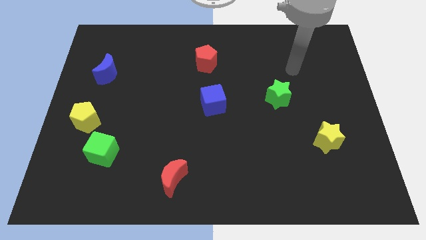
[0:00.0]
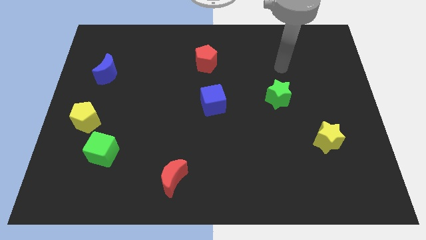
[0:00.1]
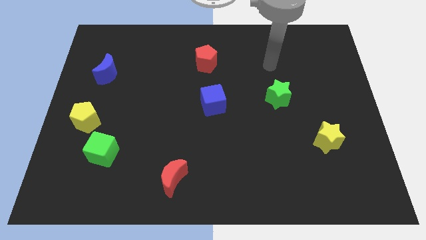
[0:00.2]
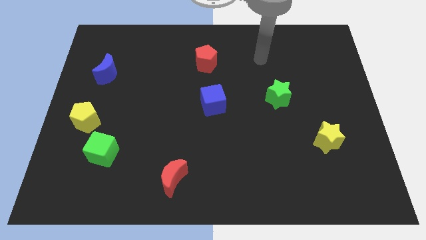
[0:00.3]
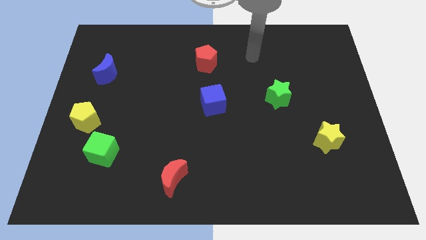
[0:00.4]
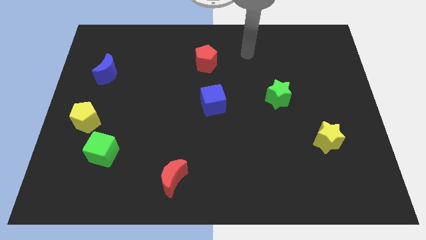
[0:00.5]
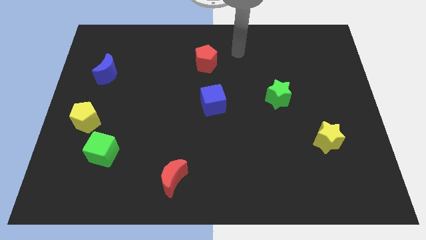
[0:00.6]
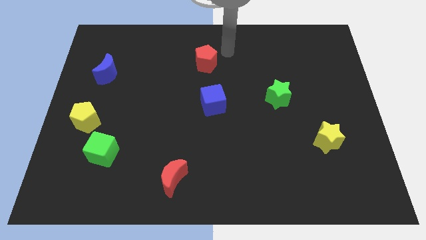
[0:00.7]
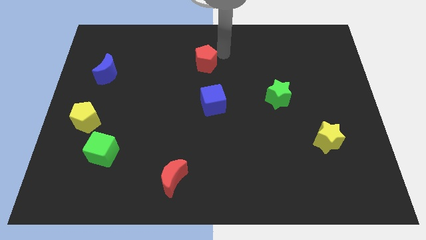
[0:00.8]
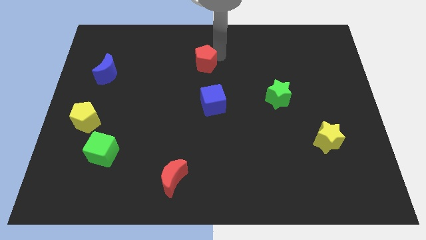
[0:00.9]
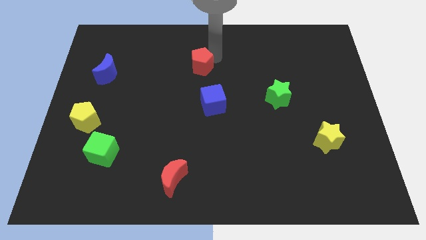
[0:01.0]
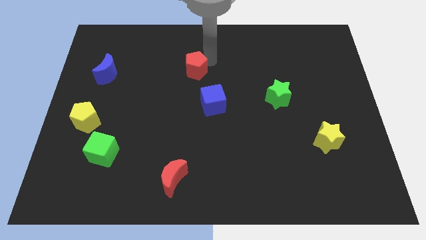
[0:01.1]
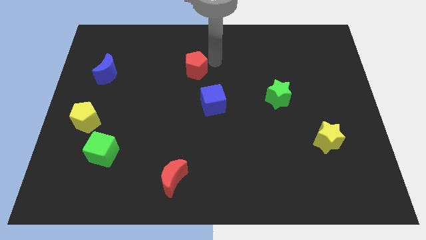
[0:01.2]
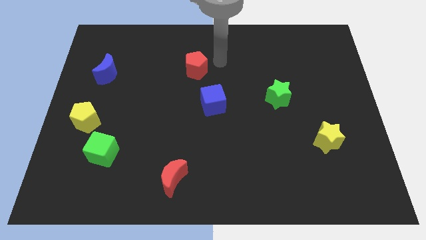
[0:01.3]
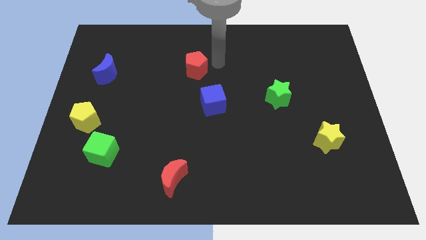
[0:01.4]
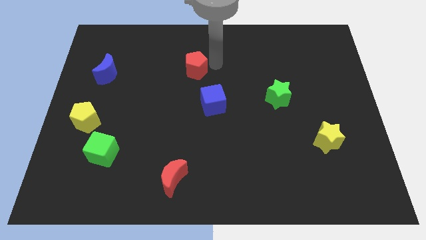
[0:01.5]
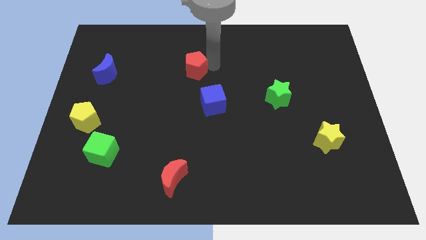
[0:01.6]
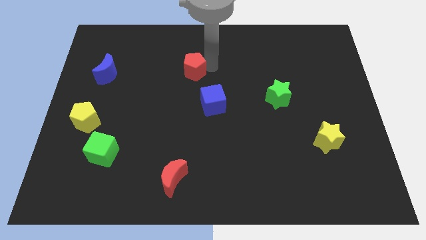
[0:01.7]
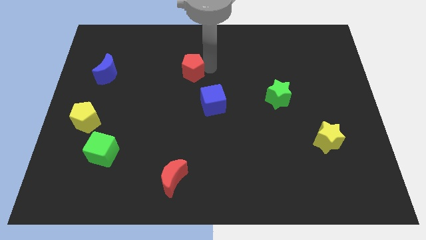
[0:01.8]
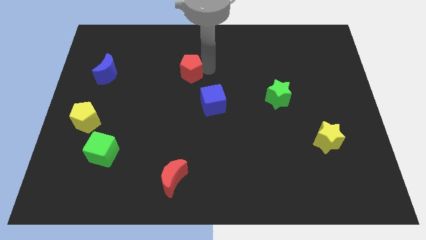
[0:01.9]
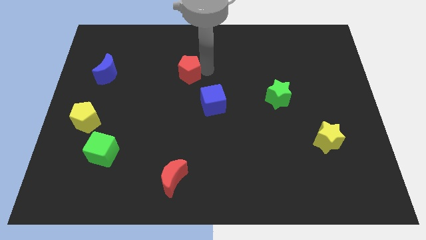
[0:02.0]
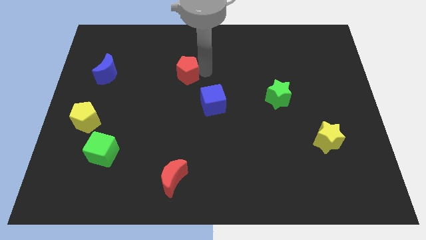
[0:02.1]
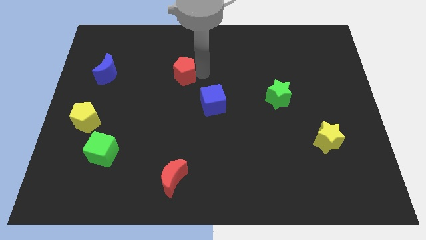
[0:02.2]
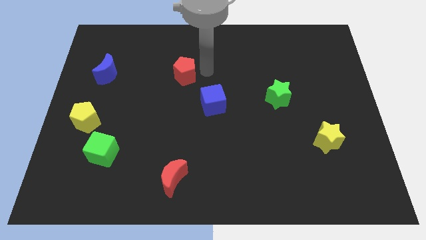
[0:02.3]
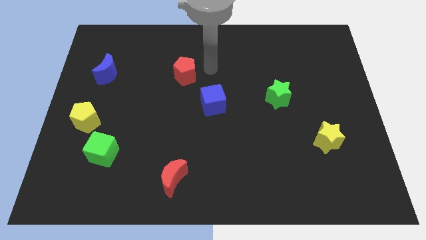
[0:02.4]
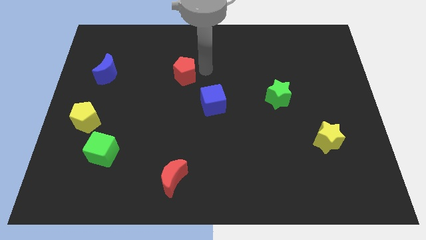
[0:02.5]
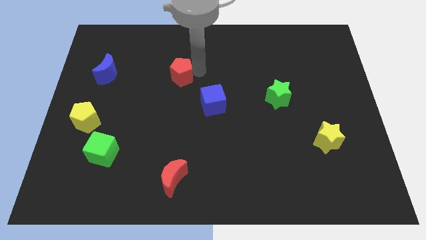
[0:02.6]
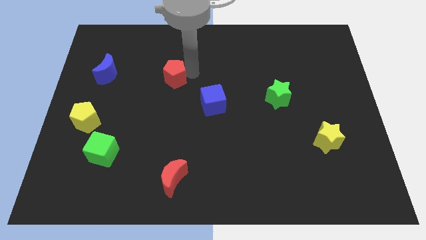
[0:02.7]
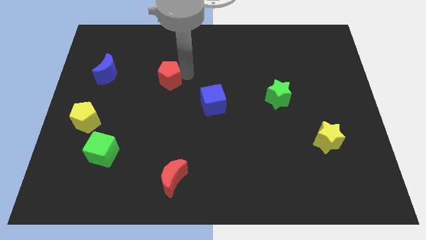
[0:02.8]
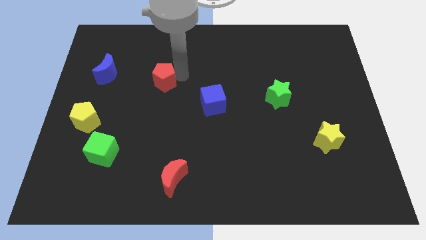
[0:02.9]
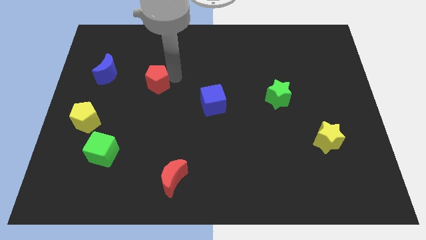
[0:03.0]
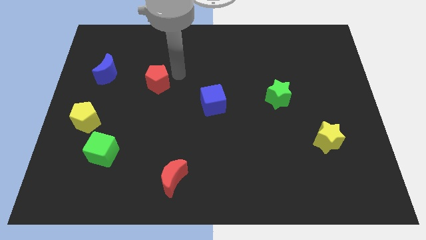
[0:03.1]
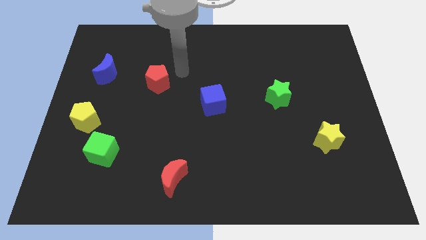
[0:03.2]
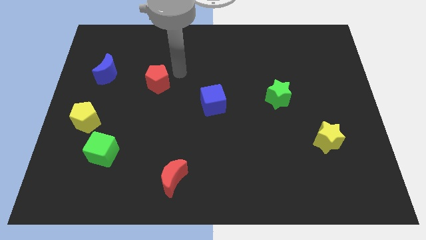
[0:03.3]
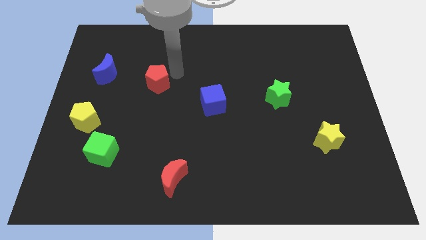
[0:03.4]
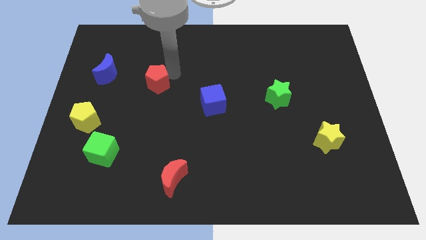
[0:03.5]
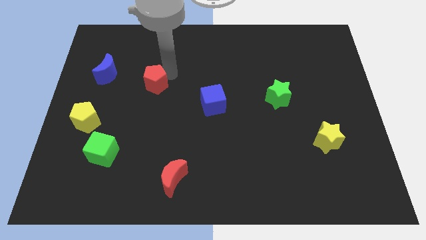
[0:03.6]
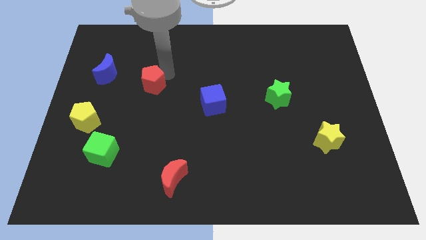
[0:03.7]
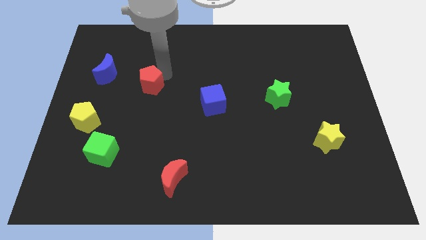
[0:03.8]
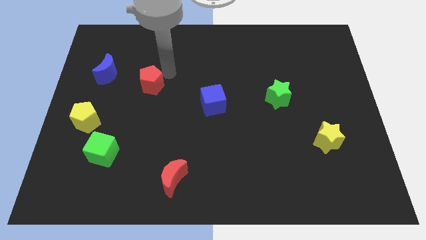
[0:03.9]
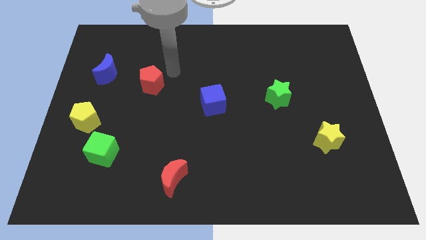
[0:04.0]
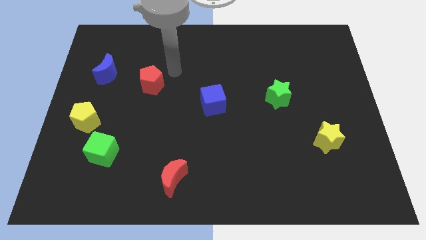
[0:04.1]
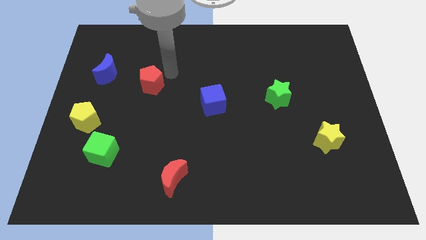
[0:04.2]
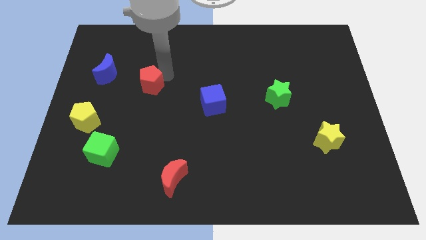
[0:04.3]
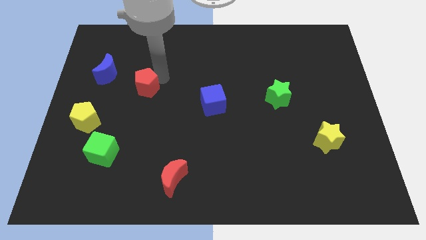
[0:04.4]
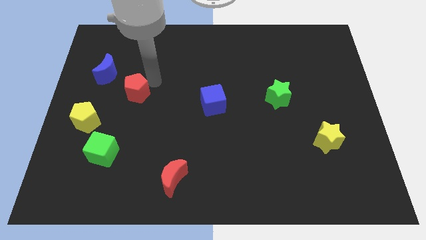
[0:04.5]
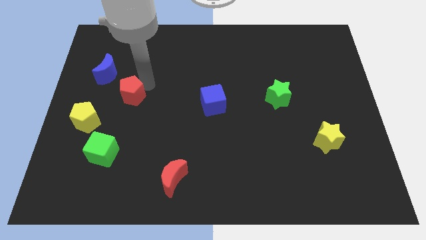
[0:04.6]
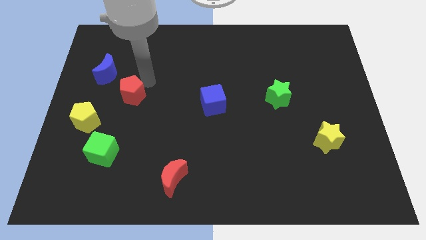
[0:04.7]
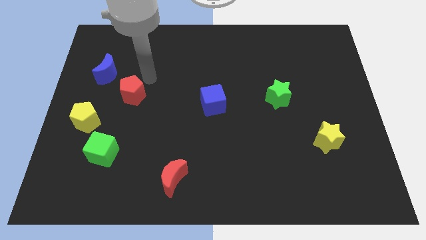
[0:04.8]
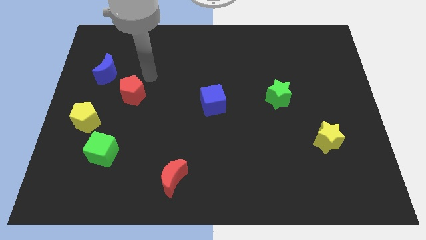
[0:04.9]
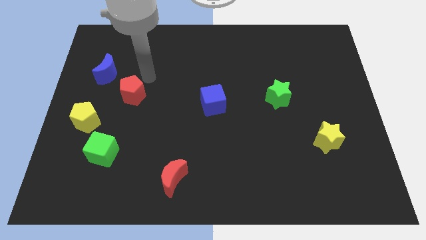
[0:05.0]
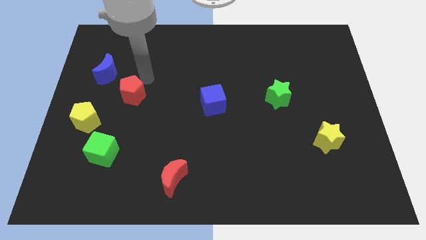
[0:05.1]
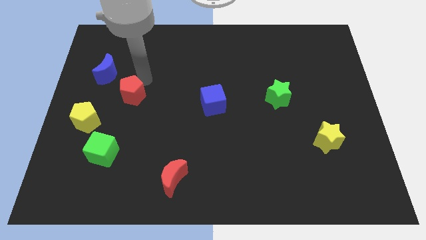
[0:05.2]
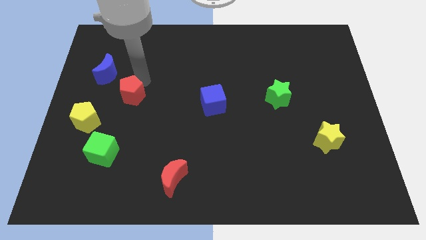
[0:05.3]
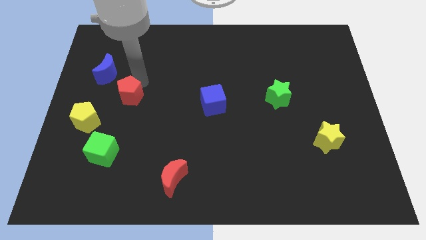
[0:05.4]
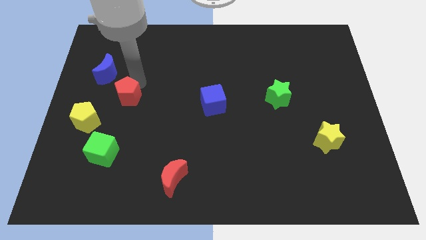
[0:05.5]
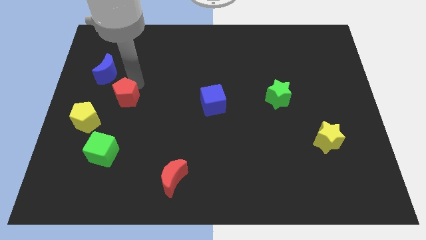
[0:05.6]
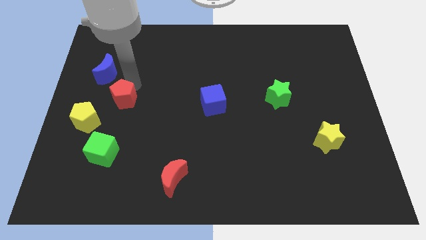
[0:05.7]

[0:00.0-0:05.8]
move the red pentagon above the green cube

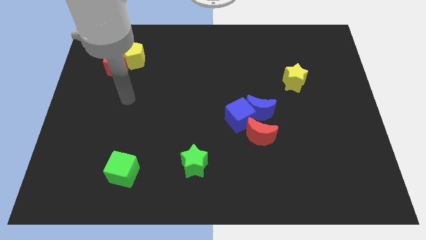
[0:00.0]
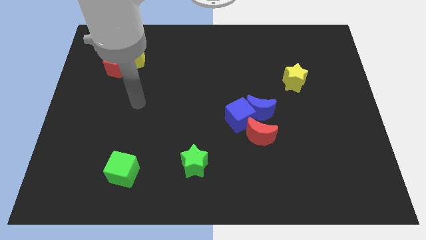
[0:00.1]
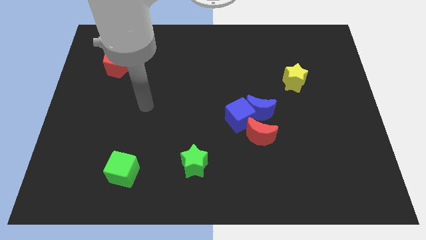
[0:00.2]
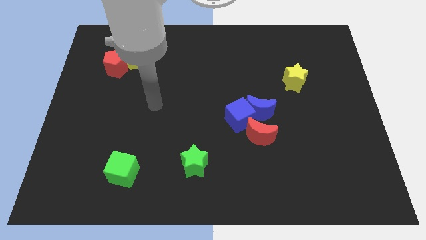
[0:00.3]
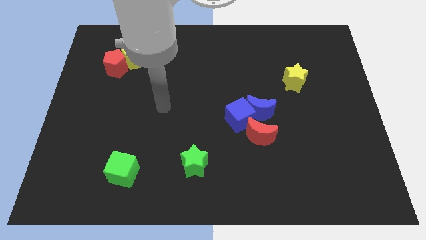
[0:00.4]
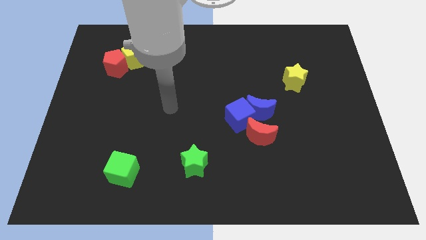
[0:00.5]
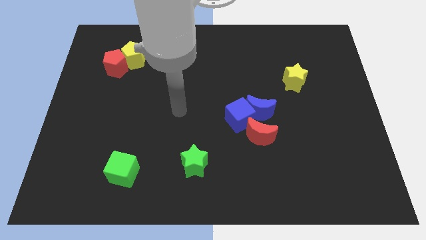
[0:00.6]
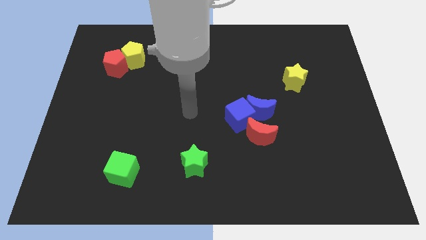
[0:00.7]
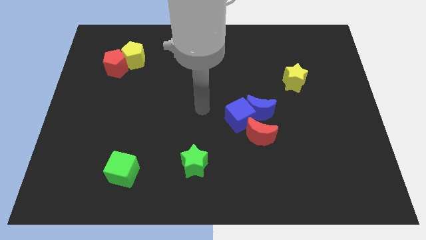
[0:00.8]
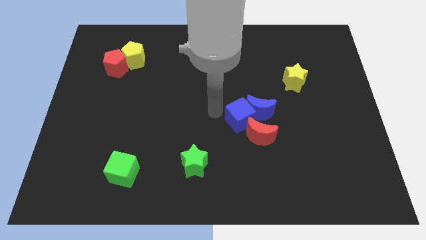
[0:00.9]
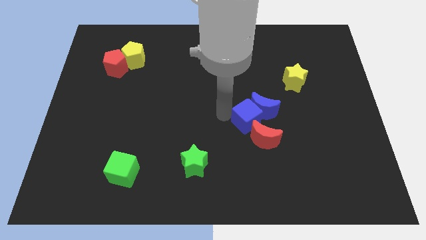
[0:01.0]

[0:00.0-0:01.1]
move the blue moon diagonally down and to the left of the yellow star

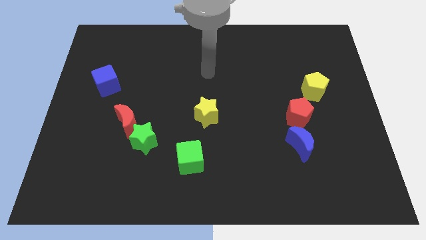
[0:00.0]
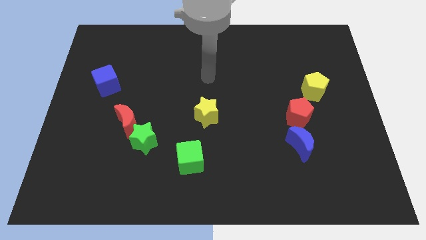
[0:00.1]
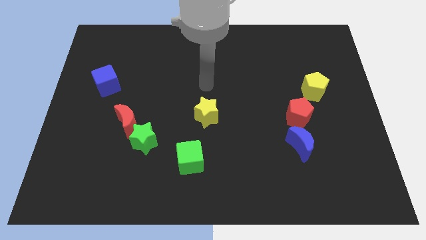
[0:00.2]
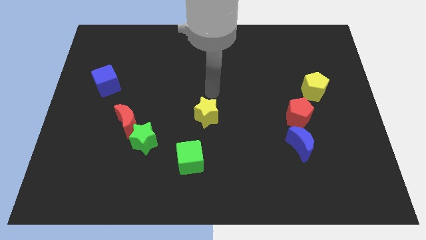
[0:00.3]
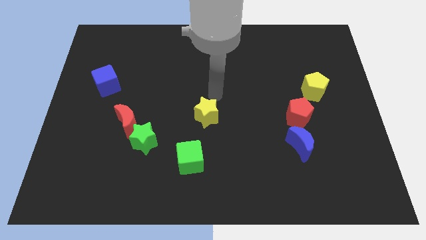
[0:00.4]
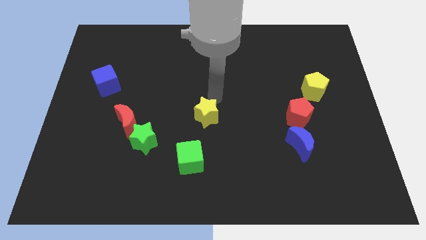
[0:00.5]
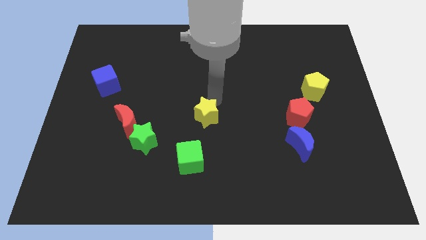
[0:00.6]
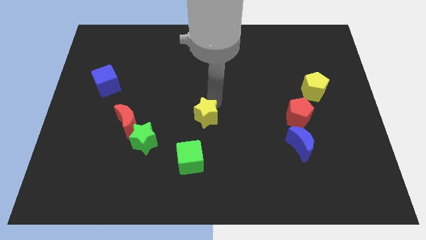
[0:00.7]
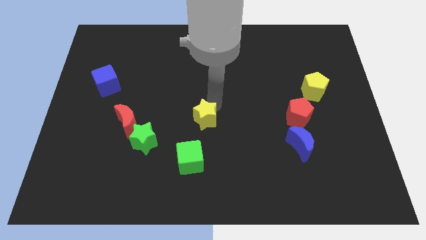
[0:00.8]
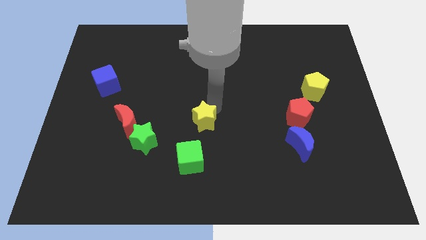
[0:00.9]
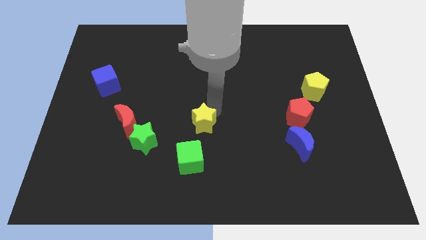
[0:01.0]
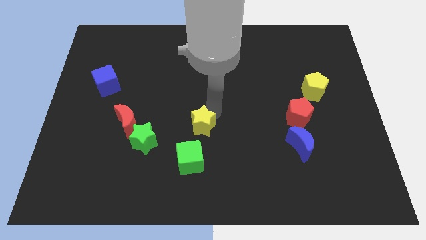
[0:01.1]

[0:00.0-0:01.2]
move the yellow star to the right side of the green star
